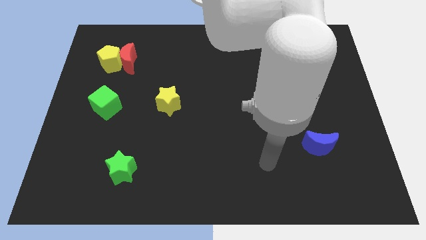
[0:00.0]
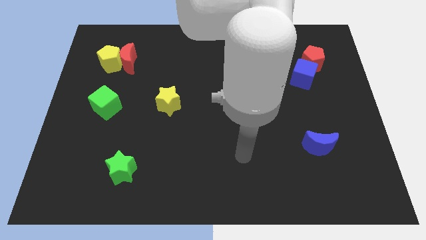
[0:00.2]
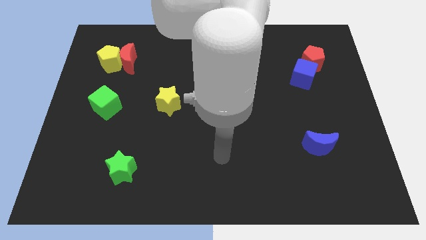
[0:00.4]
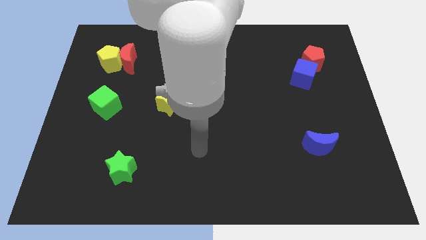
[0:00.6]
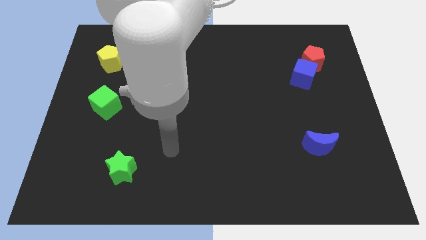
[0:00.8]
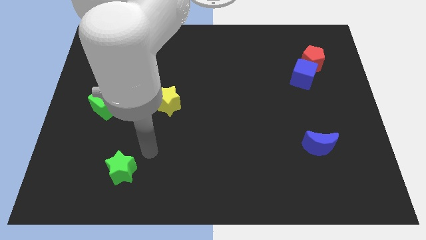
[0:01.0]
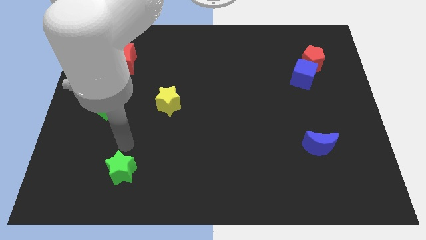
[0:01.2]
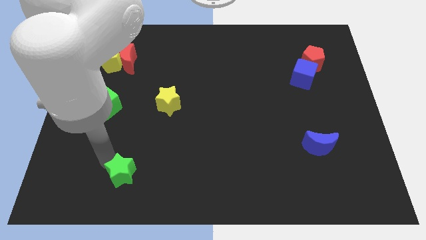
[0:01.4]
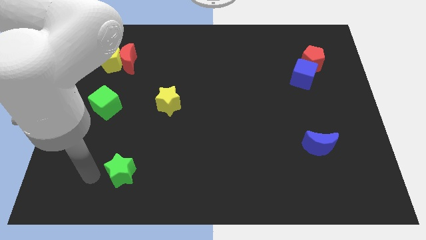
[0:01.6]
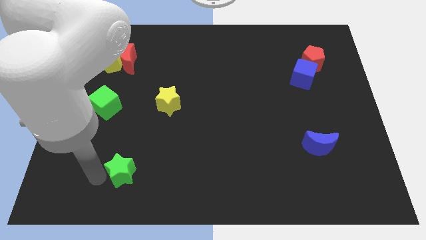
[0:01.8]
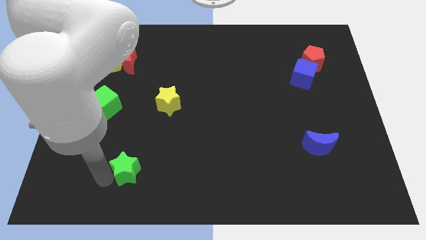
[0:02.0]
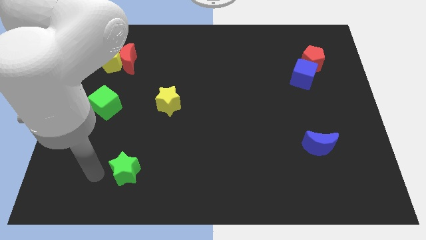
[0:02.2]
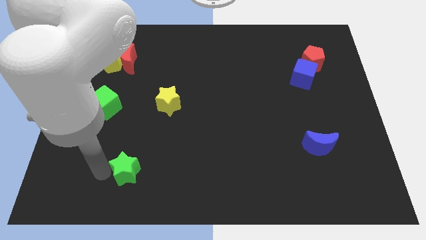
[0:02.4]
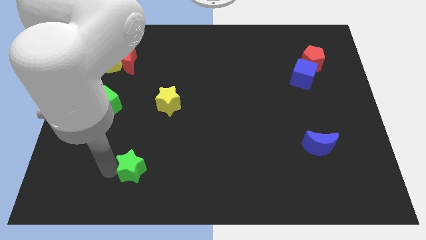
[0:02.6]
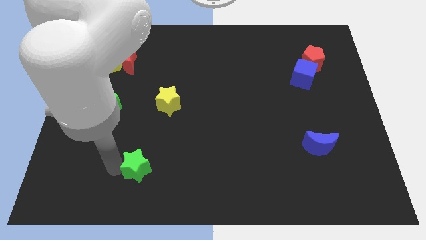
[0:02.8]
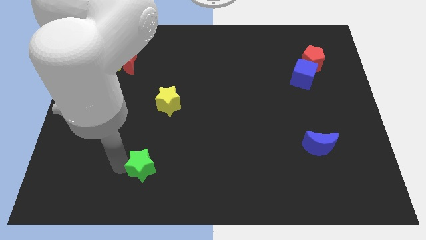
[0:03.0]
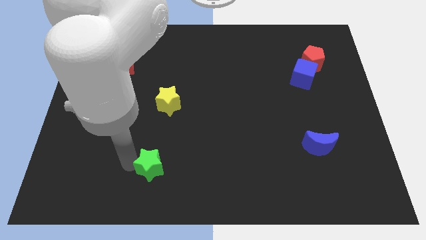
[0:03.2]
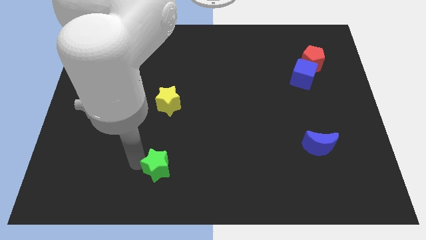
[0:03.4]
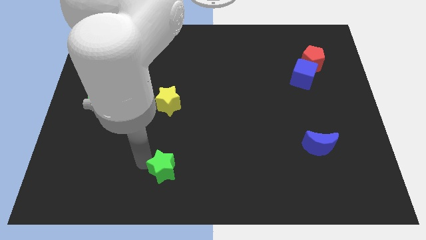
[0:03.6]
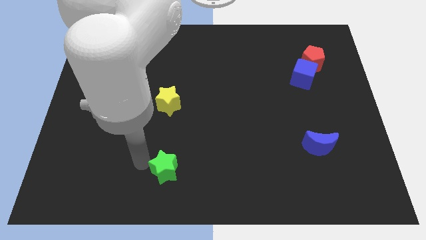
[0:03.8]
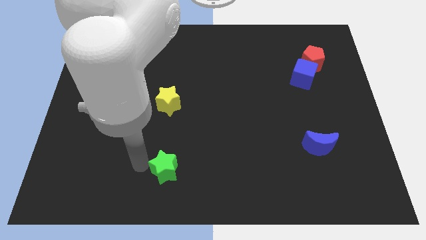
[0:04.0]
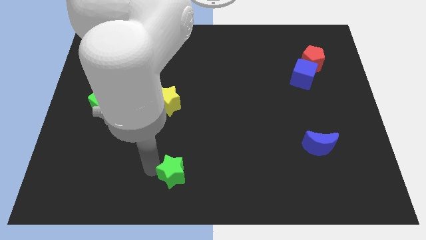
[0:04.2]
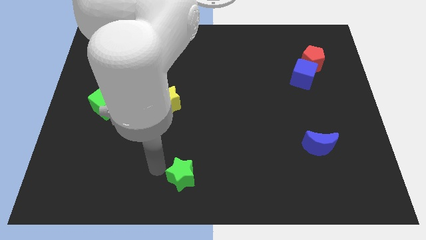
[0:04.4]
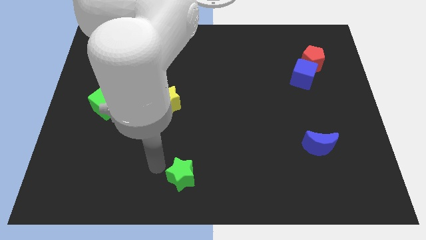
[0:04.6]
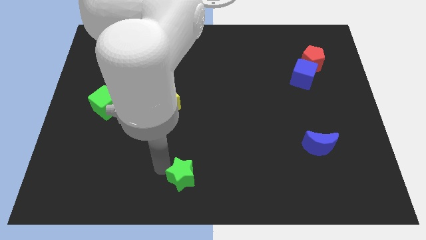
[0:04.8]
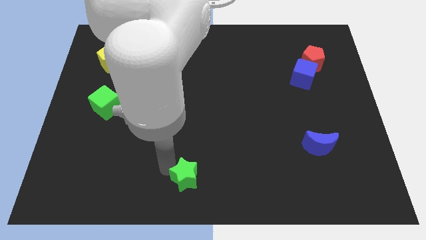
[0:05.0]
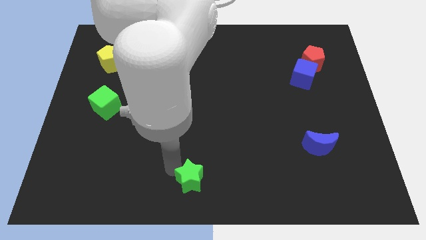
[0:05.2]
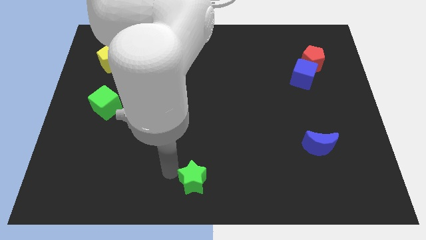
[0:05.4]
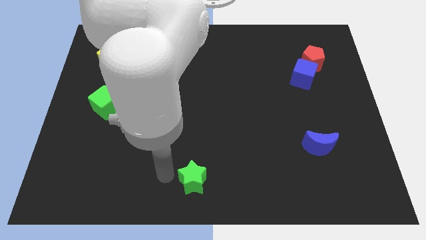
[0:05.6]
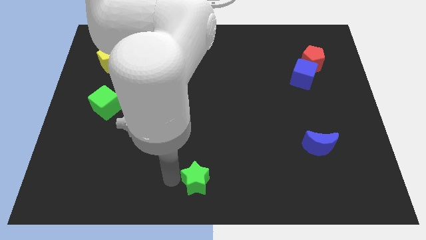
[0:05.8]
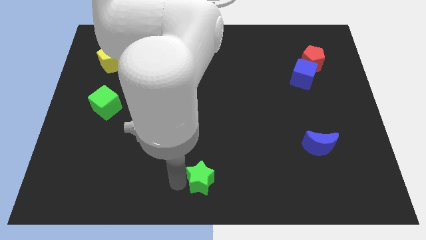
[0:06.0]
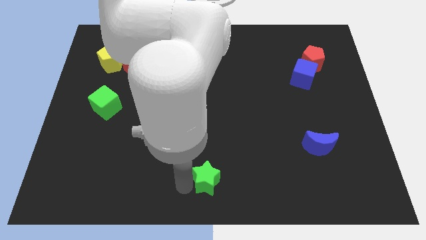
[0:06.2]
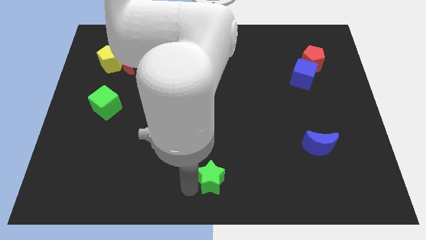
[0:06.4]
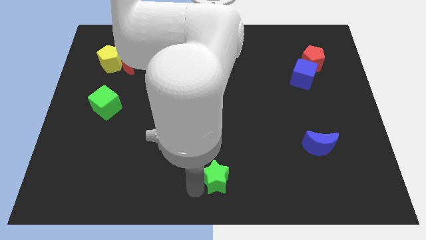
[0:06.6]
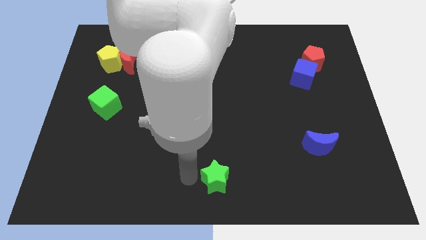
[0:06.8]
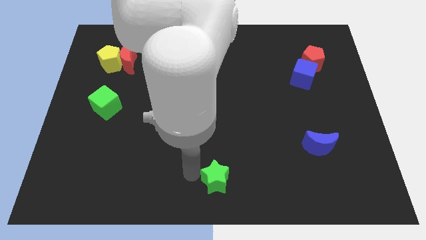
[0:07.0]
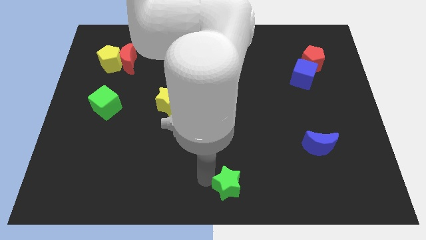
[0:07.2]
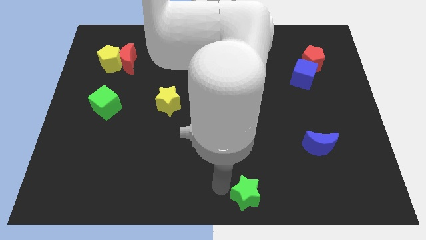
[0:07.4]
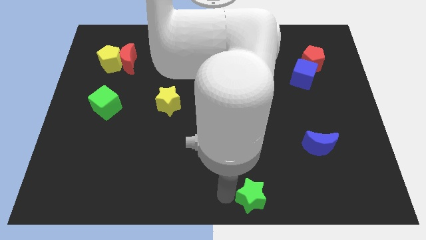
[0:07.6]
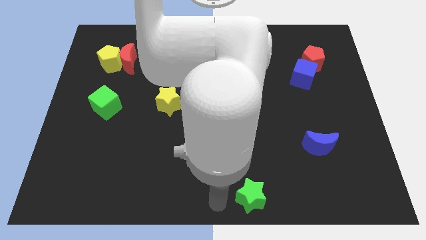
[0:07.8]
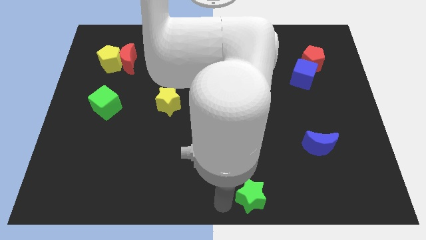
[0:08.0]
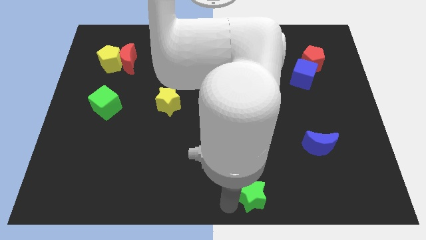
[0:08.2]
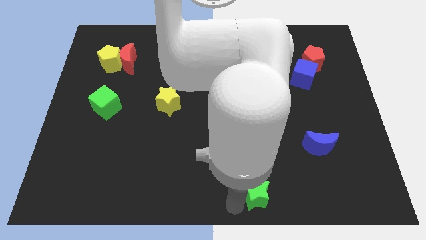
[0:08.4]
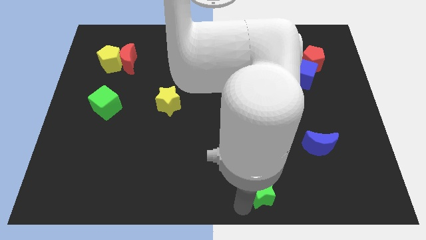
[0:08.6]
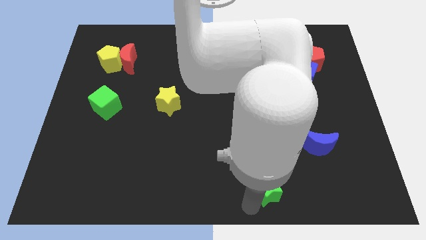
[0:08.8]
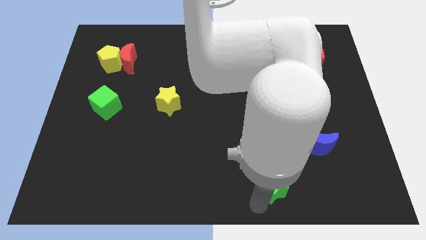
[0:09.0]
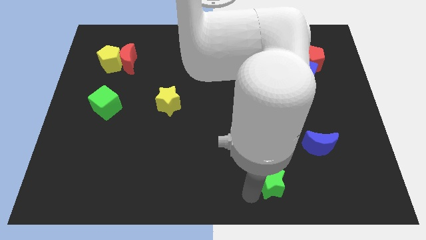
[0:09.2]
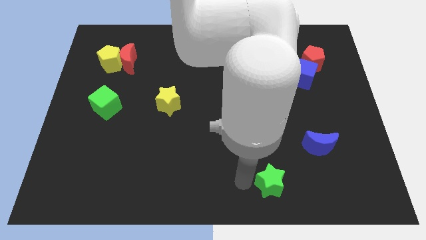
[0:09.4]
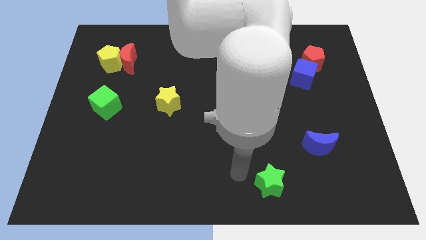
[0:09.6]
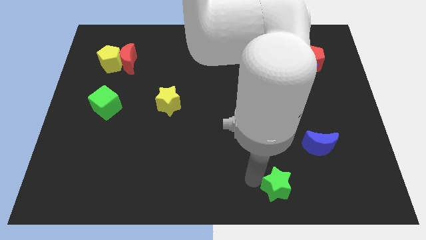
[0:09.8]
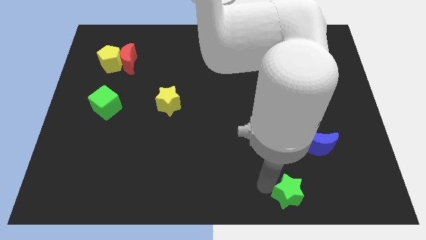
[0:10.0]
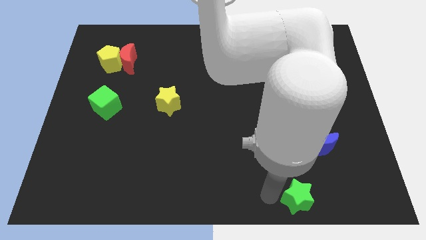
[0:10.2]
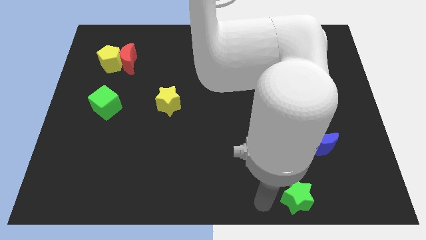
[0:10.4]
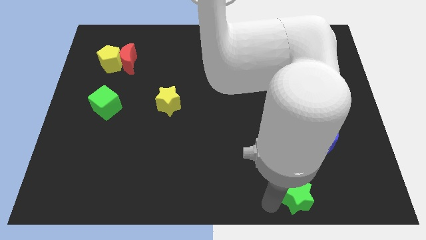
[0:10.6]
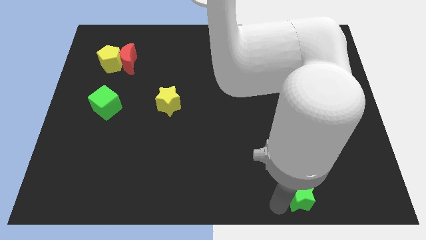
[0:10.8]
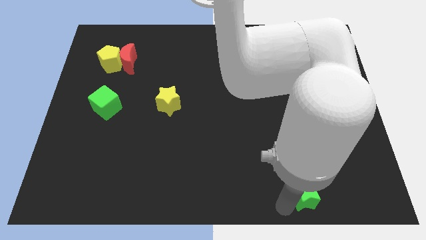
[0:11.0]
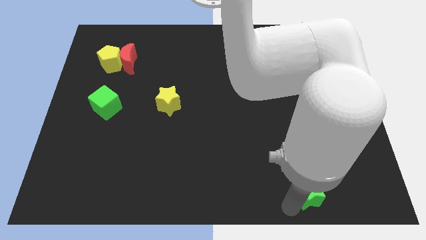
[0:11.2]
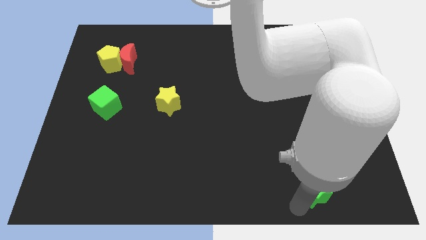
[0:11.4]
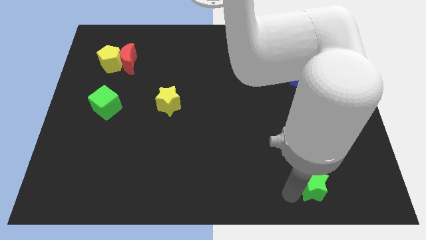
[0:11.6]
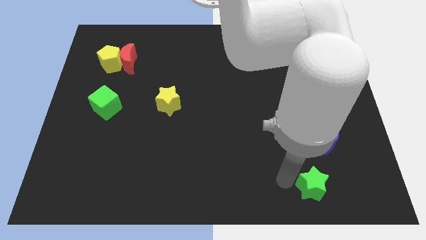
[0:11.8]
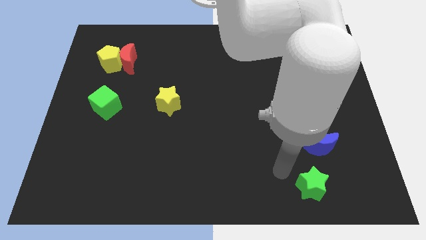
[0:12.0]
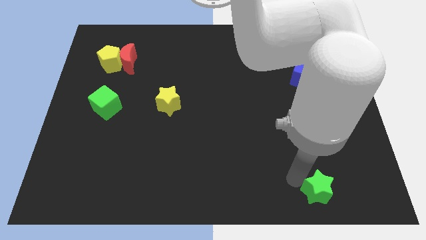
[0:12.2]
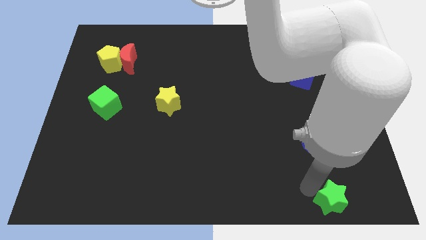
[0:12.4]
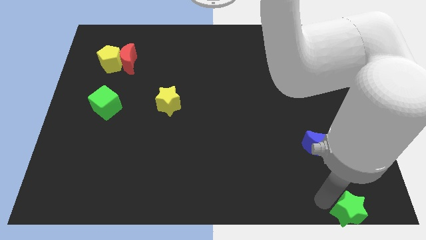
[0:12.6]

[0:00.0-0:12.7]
push the green star to the bottom right of the board
